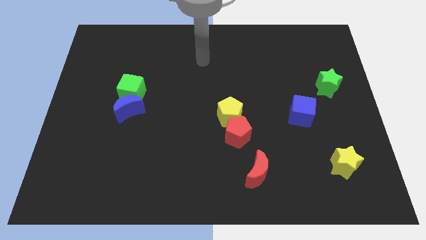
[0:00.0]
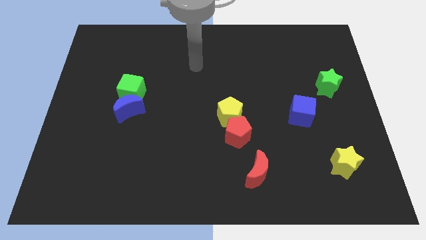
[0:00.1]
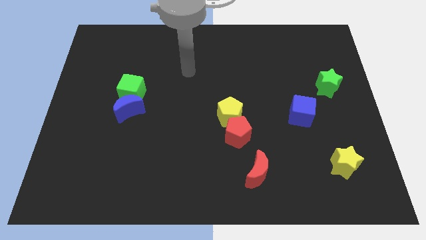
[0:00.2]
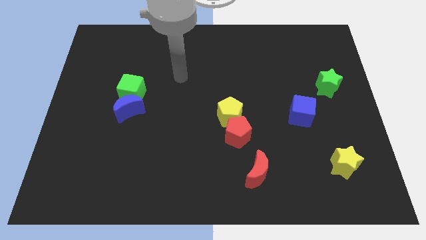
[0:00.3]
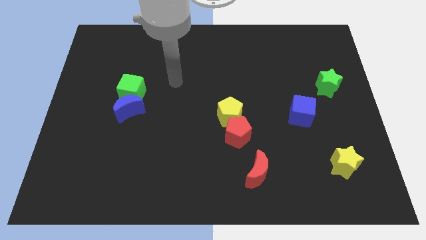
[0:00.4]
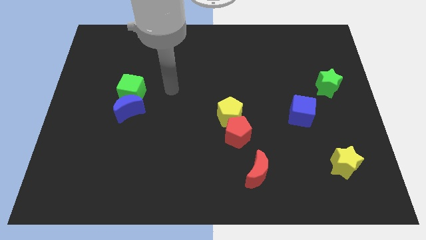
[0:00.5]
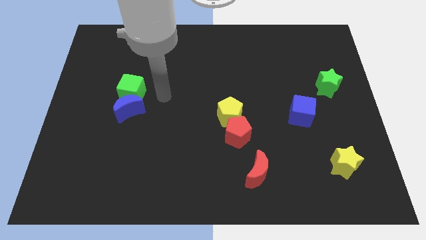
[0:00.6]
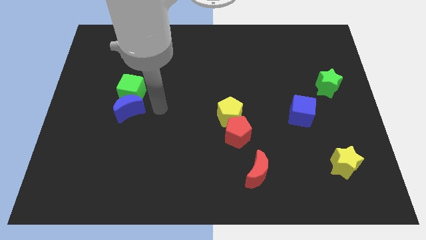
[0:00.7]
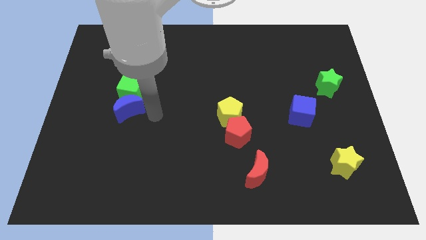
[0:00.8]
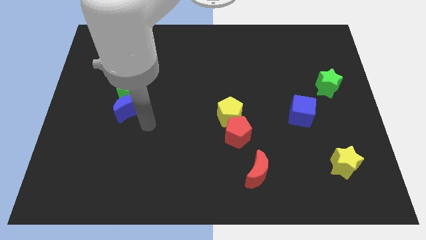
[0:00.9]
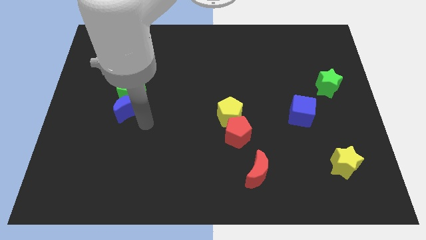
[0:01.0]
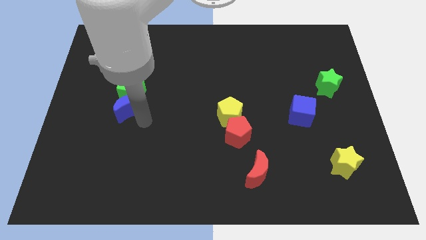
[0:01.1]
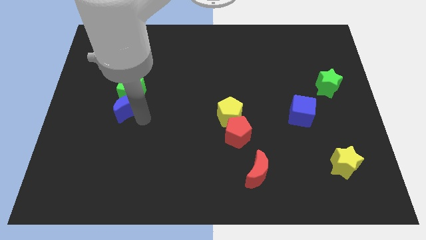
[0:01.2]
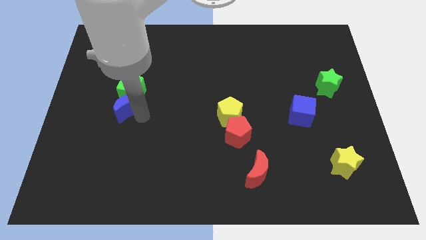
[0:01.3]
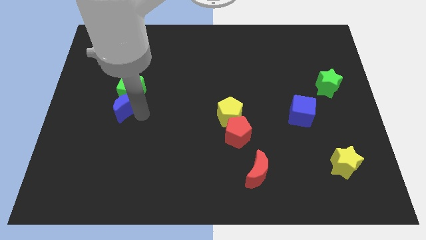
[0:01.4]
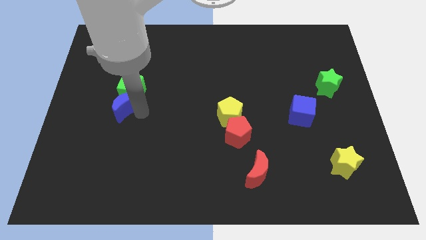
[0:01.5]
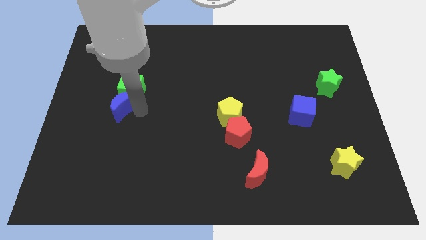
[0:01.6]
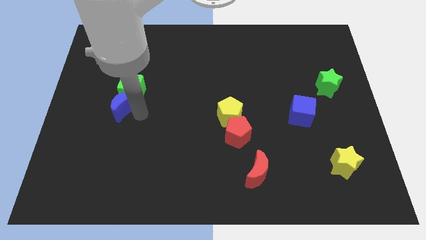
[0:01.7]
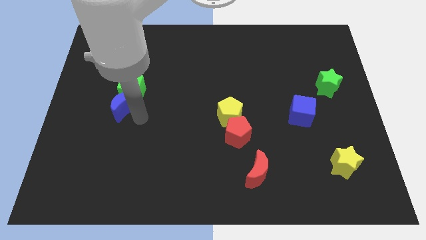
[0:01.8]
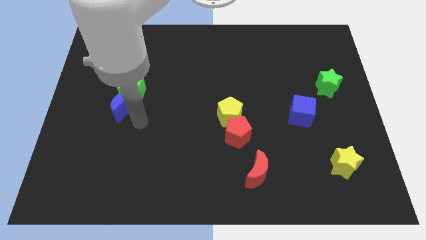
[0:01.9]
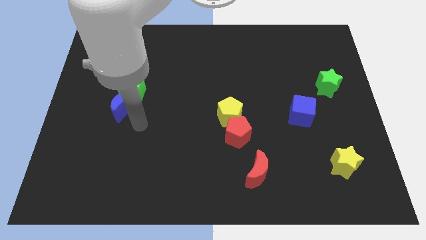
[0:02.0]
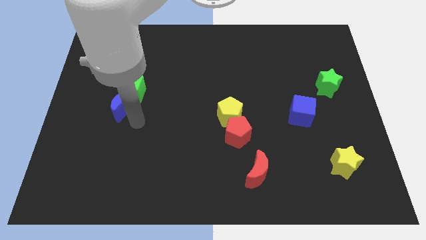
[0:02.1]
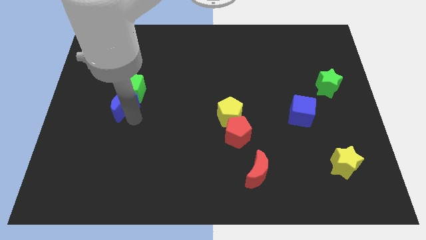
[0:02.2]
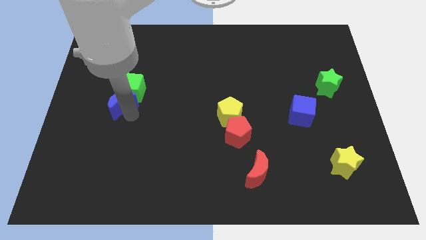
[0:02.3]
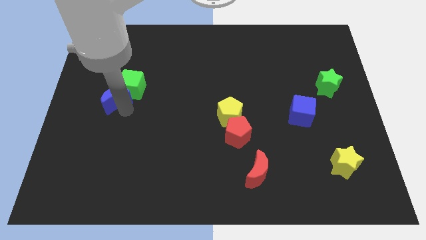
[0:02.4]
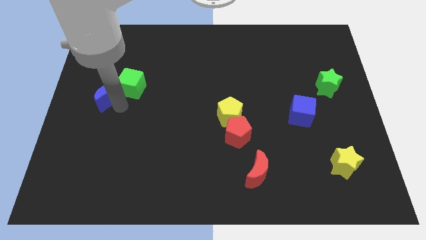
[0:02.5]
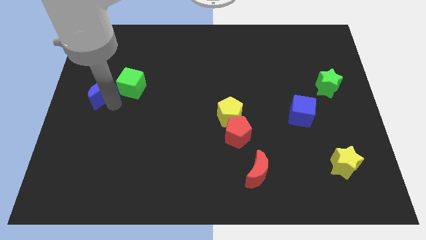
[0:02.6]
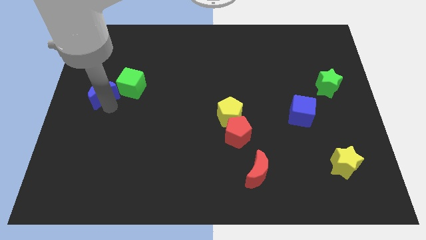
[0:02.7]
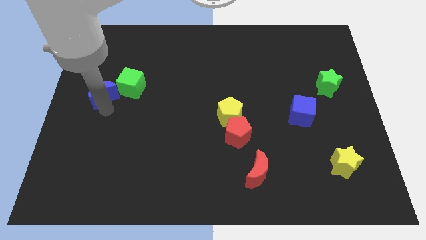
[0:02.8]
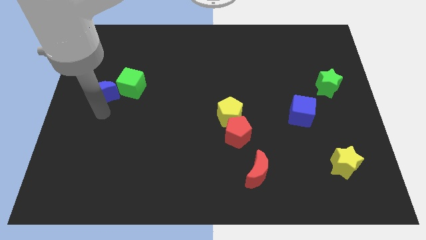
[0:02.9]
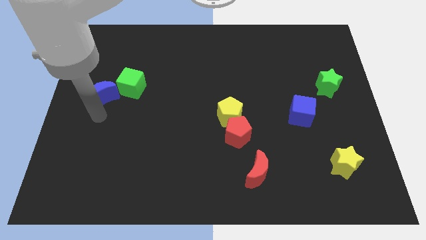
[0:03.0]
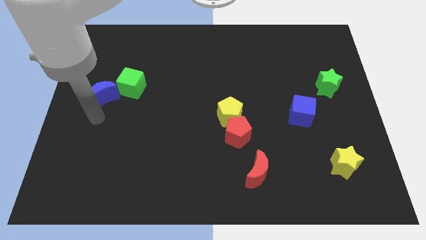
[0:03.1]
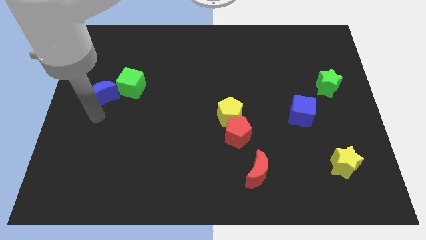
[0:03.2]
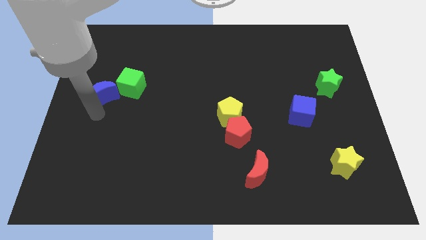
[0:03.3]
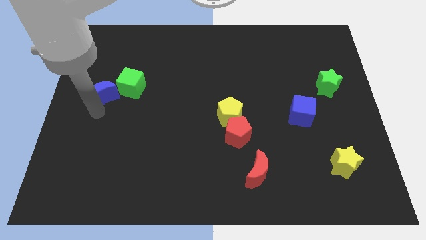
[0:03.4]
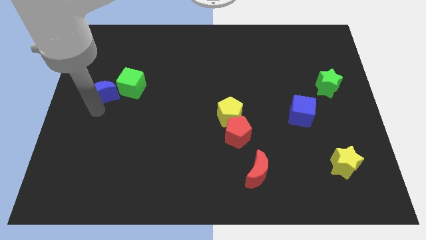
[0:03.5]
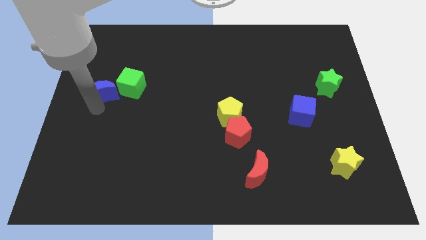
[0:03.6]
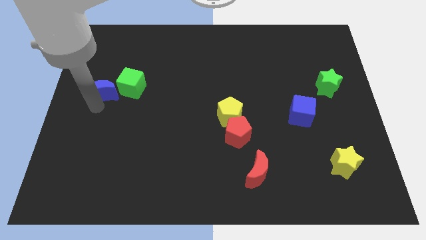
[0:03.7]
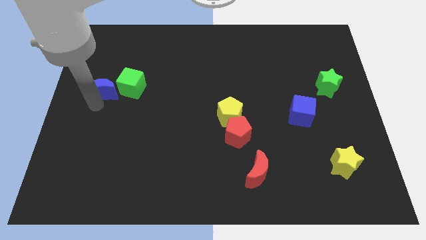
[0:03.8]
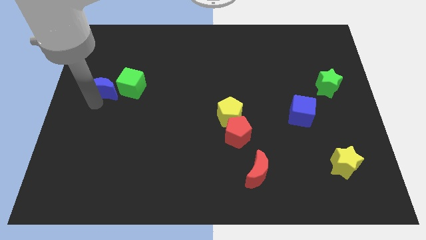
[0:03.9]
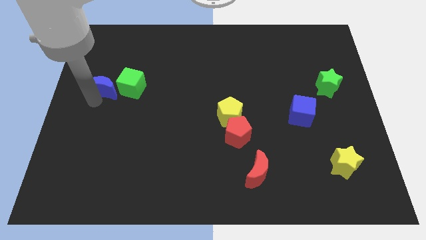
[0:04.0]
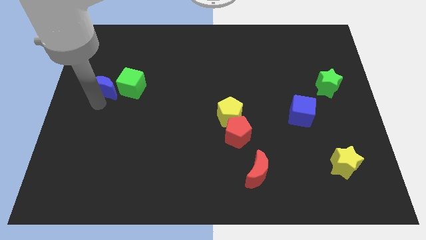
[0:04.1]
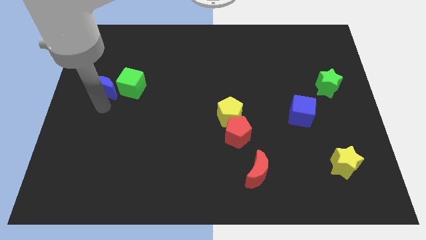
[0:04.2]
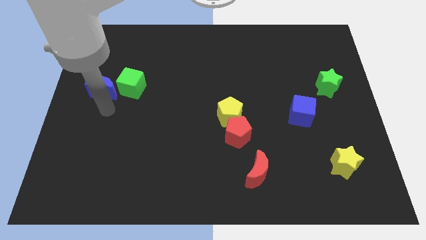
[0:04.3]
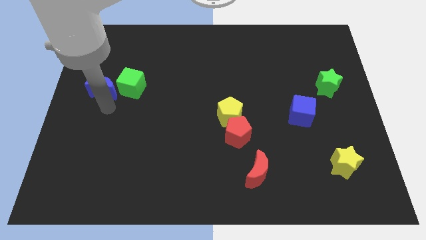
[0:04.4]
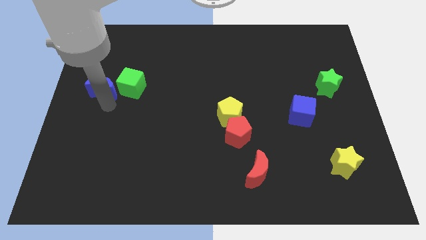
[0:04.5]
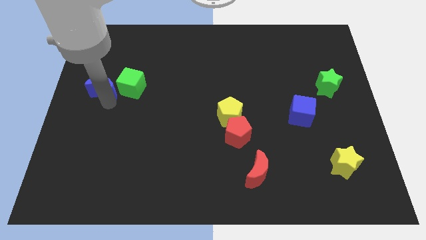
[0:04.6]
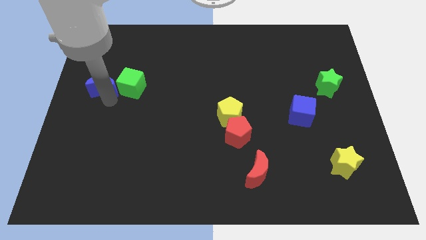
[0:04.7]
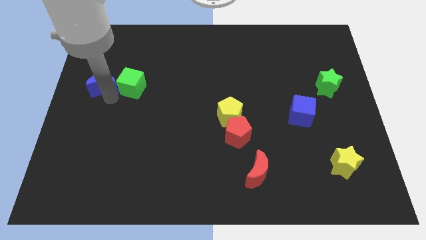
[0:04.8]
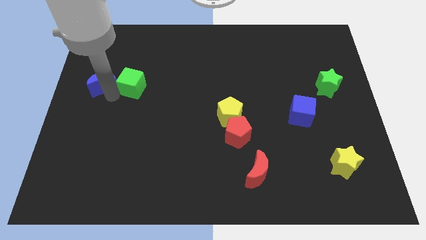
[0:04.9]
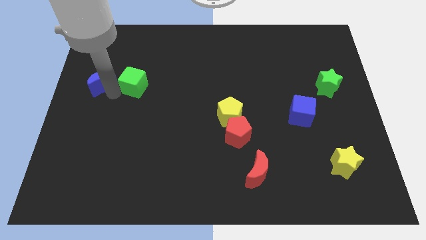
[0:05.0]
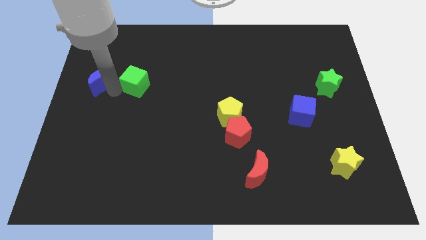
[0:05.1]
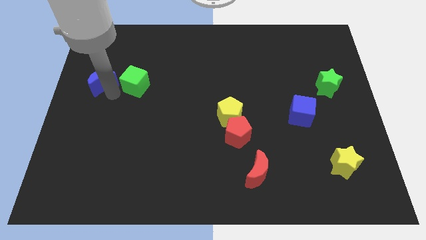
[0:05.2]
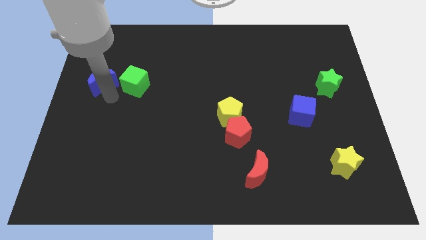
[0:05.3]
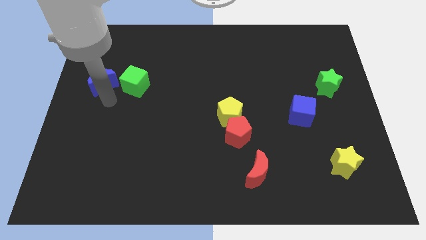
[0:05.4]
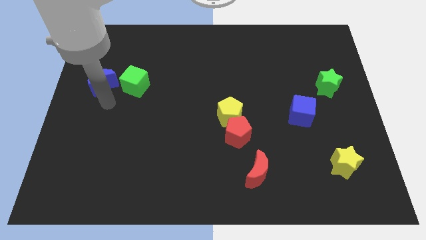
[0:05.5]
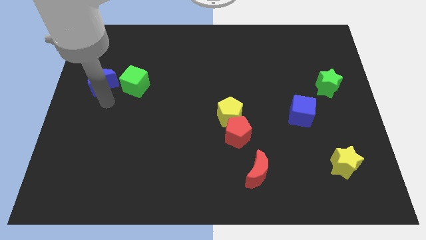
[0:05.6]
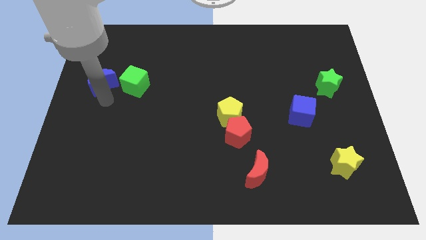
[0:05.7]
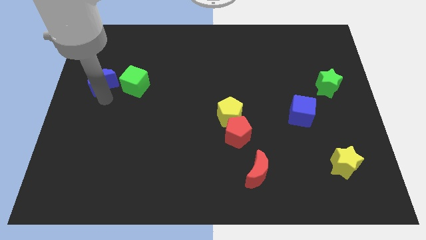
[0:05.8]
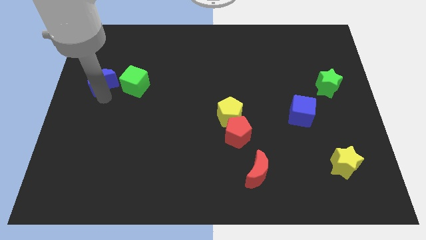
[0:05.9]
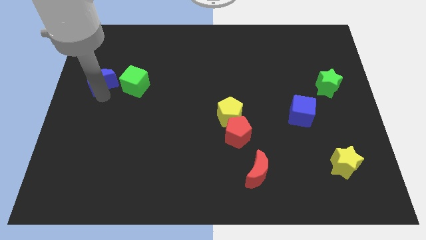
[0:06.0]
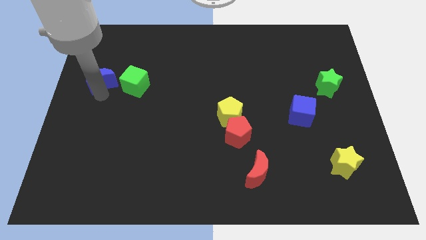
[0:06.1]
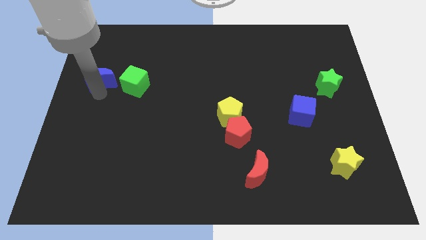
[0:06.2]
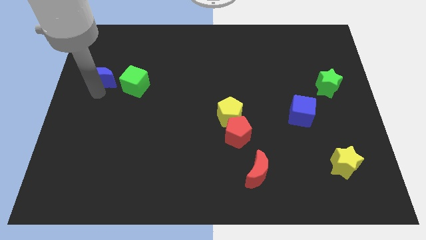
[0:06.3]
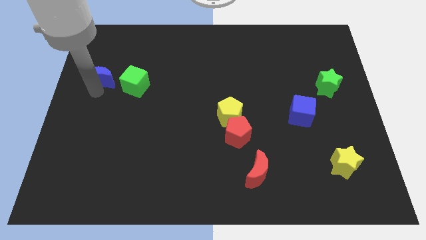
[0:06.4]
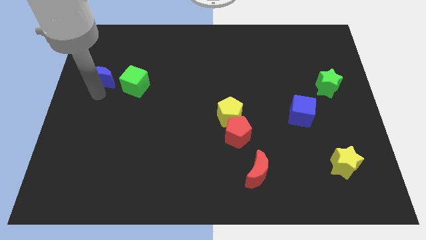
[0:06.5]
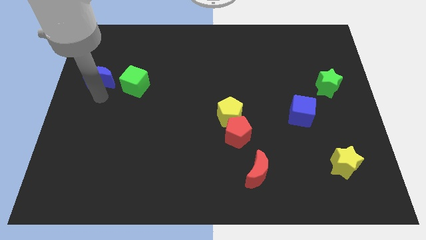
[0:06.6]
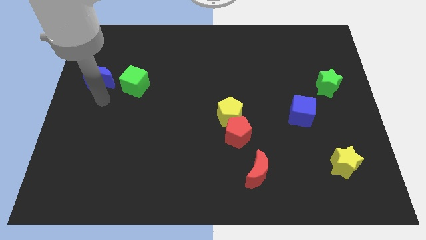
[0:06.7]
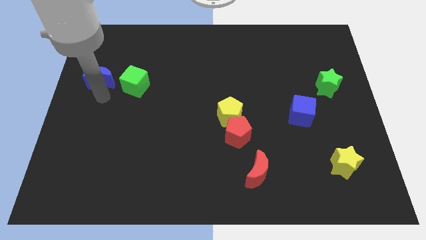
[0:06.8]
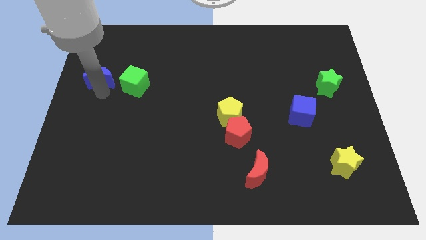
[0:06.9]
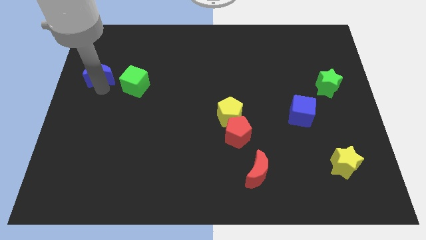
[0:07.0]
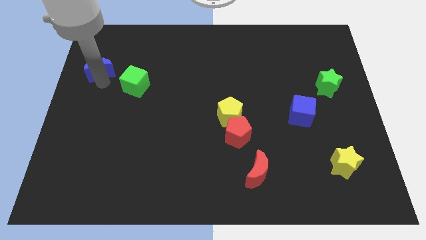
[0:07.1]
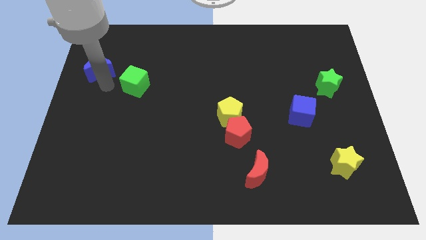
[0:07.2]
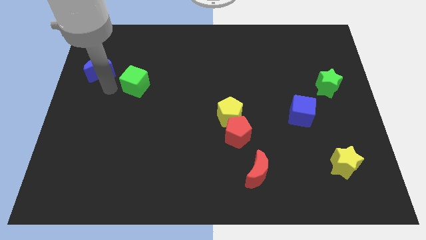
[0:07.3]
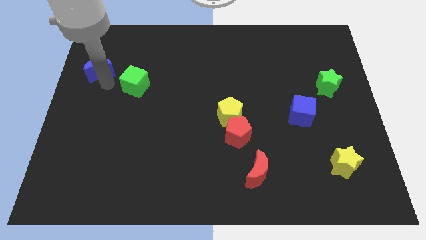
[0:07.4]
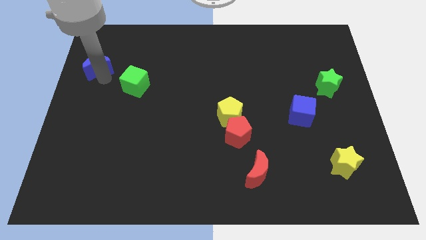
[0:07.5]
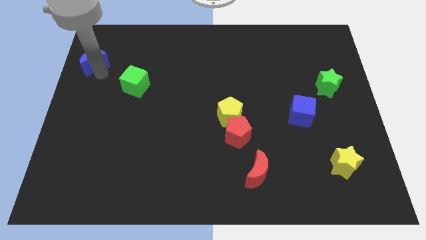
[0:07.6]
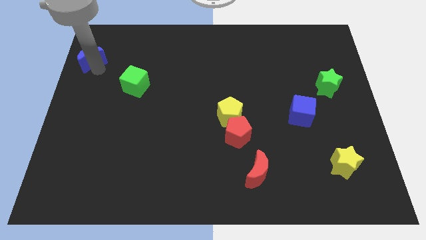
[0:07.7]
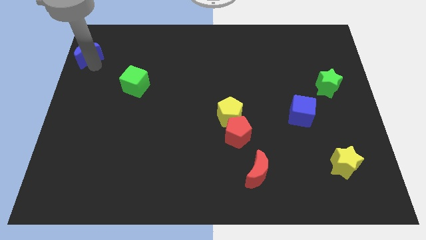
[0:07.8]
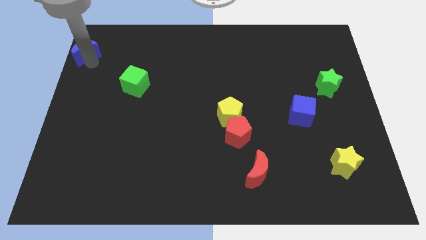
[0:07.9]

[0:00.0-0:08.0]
move the blue moon to the top left corner
